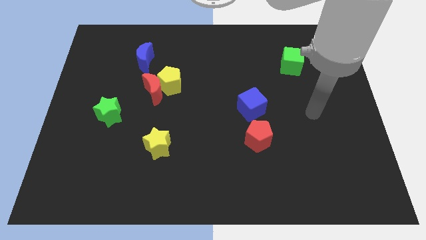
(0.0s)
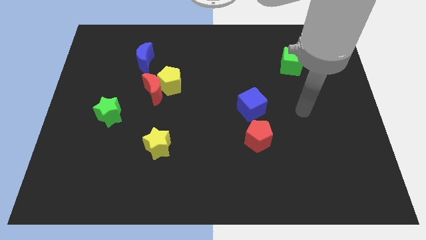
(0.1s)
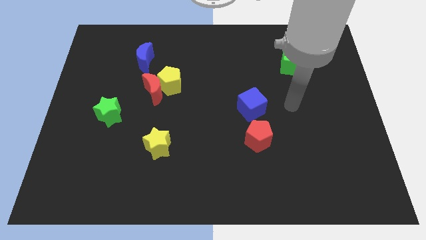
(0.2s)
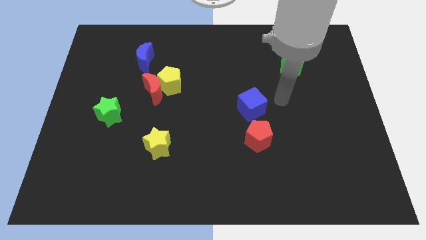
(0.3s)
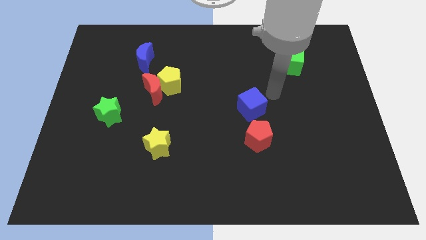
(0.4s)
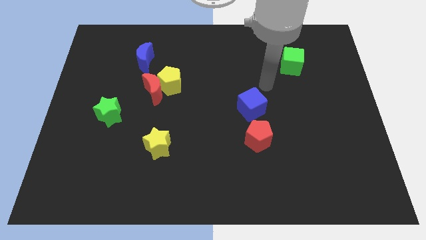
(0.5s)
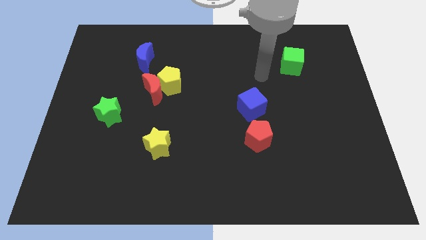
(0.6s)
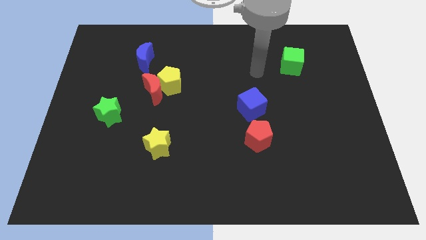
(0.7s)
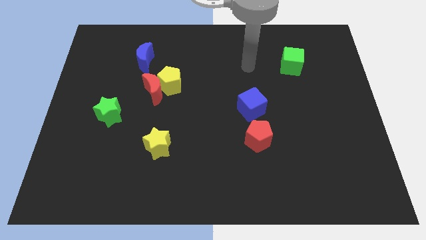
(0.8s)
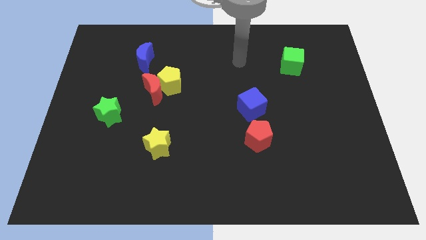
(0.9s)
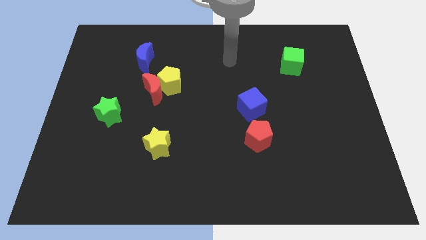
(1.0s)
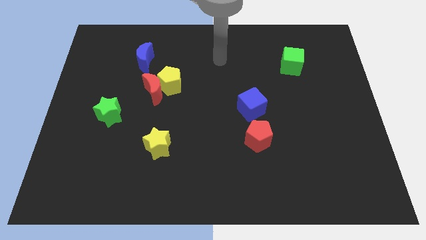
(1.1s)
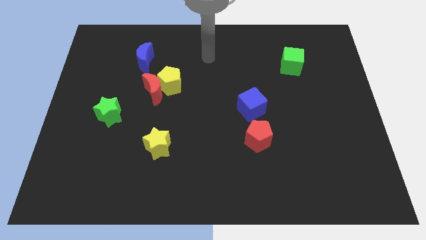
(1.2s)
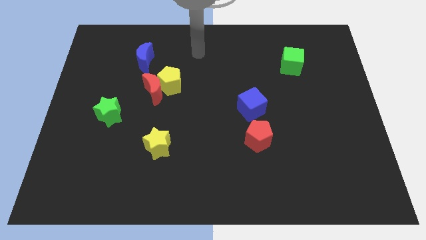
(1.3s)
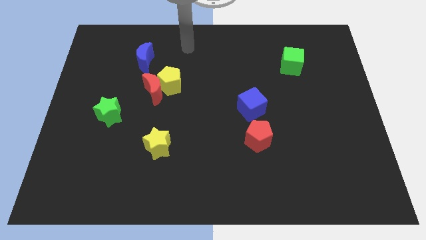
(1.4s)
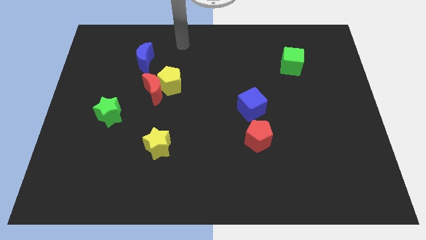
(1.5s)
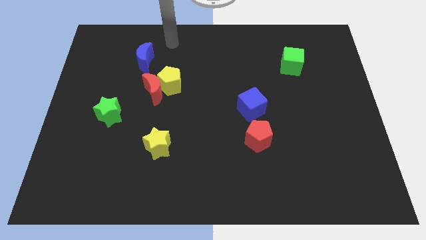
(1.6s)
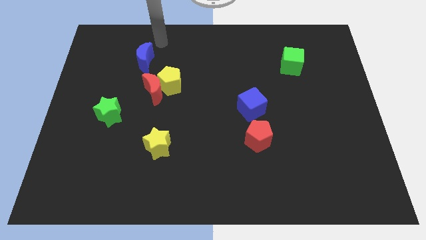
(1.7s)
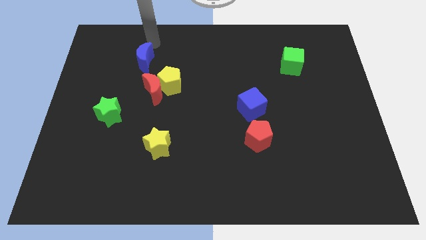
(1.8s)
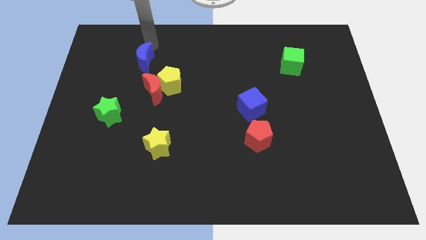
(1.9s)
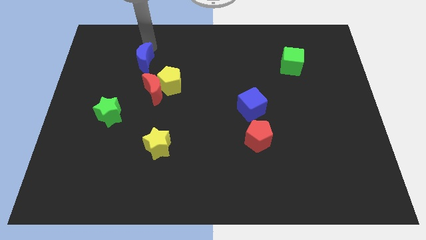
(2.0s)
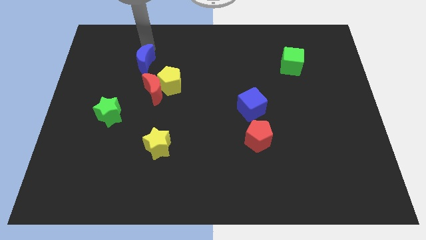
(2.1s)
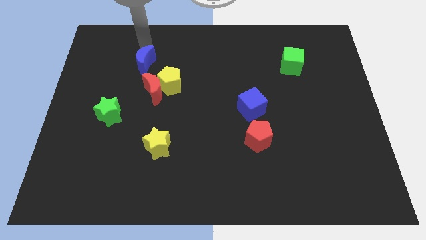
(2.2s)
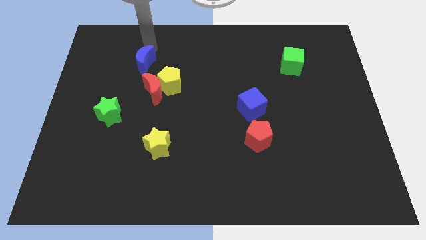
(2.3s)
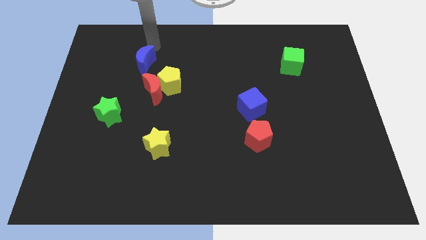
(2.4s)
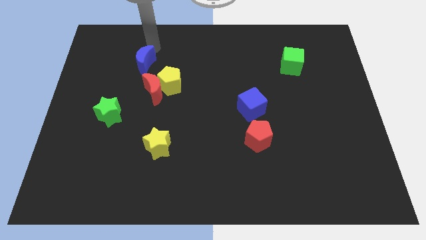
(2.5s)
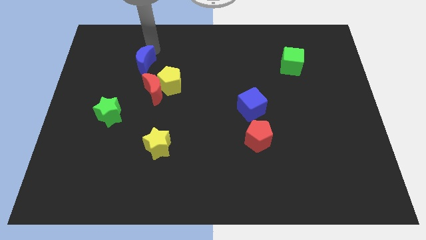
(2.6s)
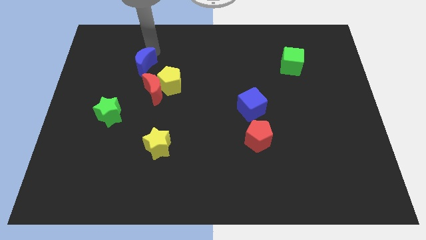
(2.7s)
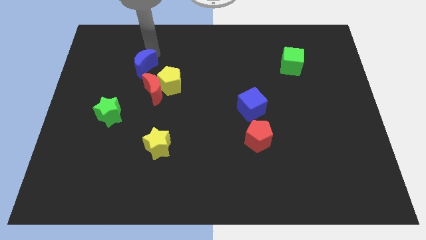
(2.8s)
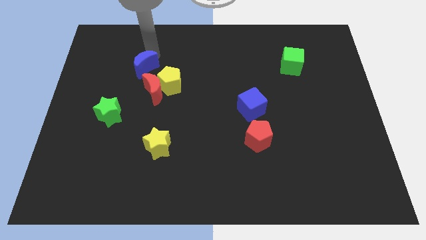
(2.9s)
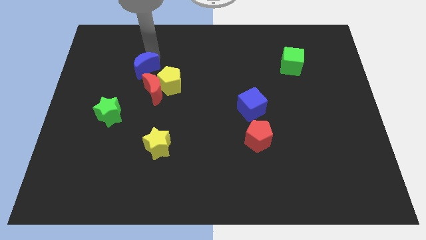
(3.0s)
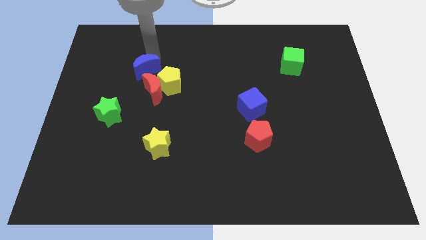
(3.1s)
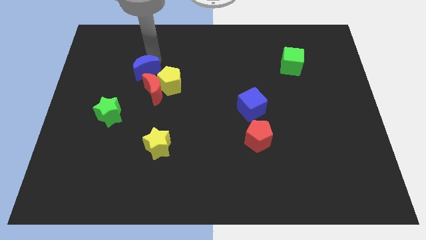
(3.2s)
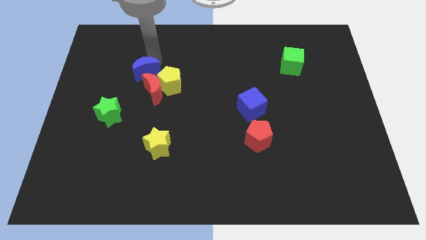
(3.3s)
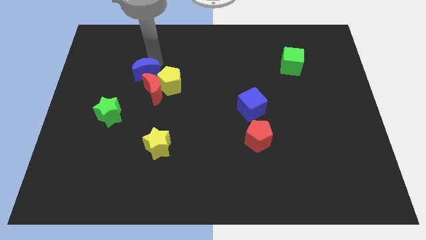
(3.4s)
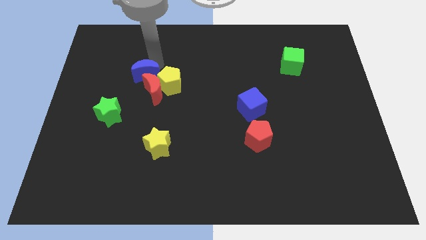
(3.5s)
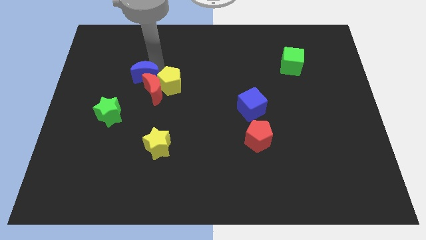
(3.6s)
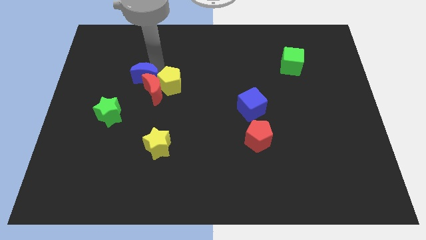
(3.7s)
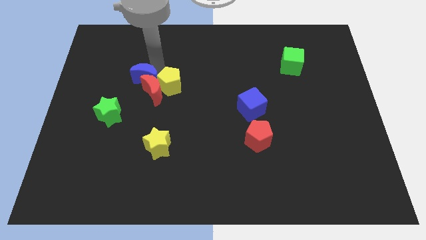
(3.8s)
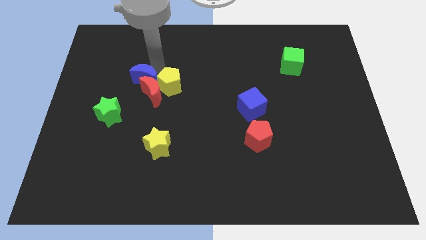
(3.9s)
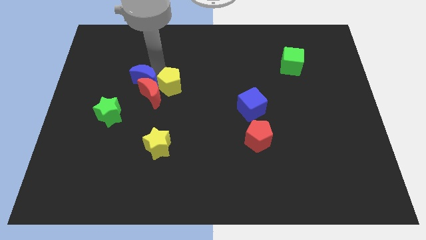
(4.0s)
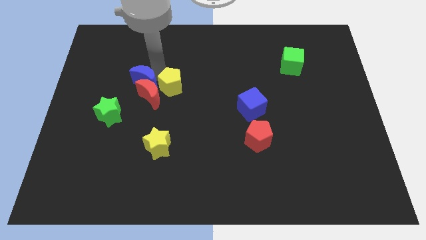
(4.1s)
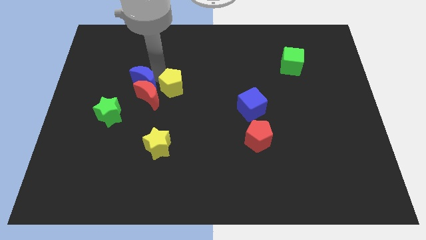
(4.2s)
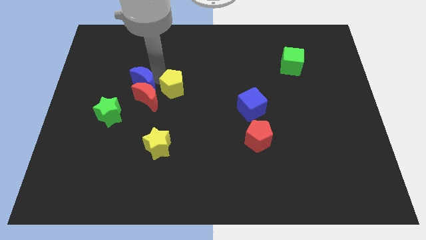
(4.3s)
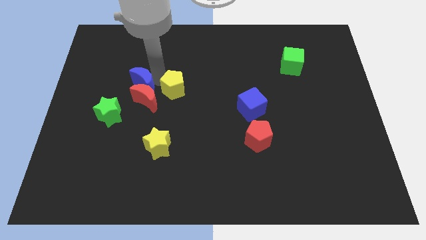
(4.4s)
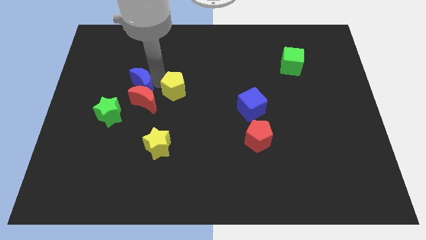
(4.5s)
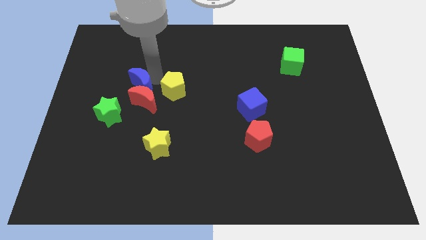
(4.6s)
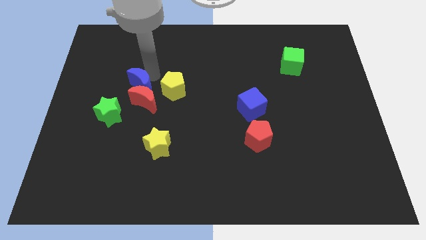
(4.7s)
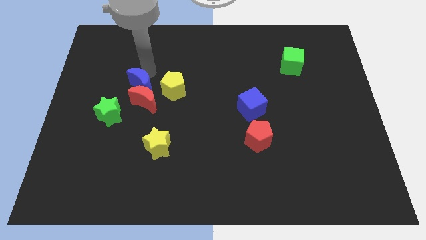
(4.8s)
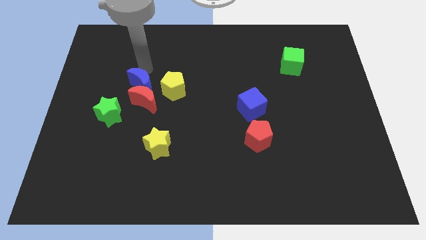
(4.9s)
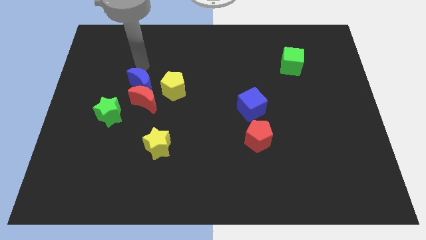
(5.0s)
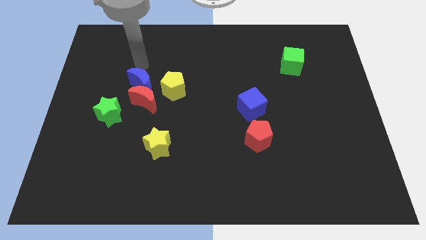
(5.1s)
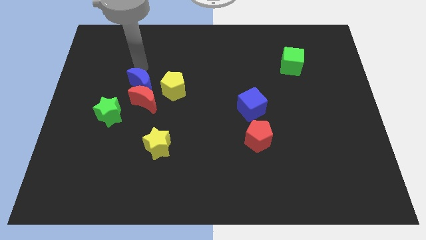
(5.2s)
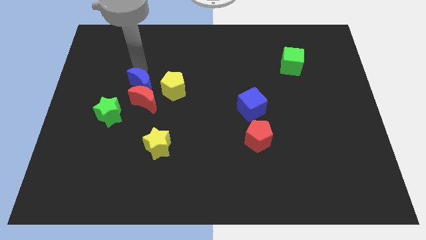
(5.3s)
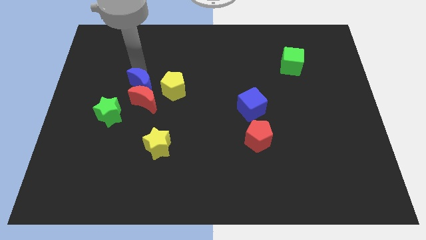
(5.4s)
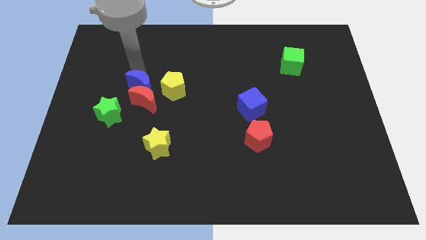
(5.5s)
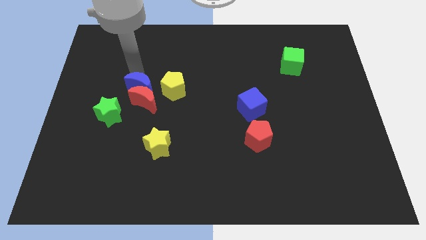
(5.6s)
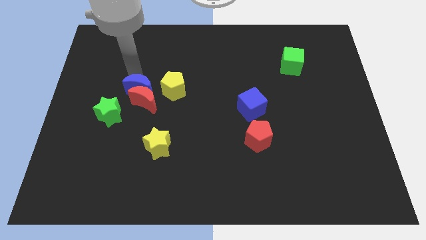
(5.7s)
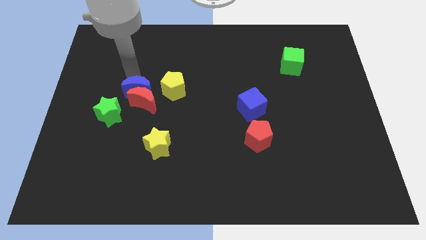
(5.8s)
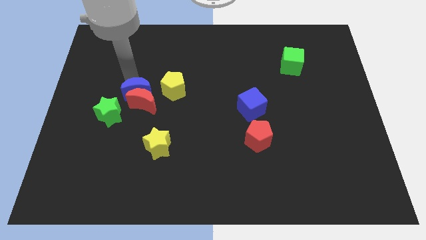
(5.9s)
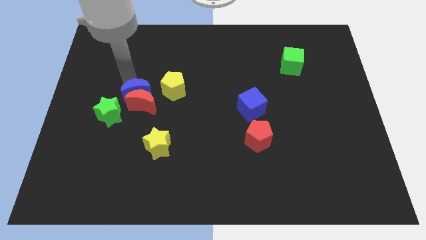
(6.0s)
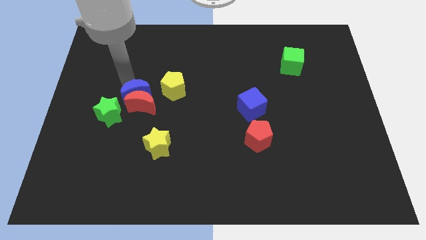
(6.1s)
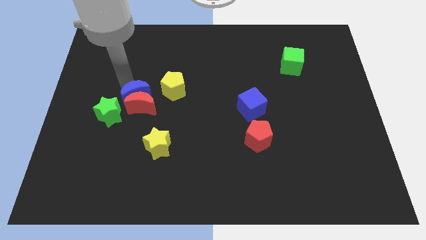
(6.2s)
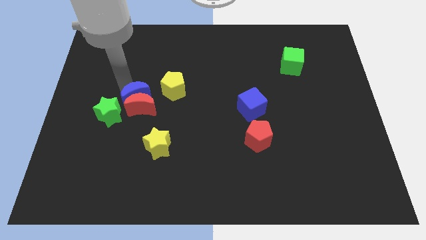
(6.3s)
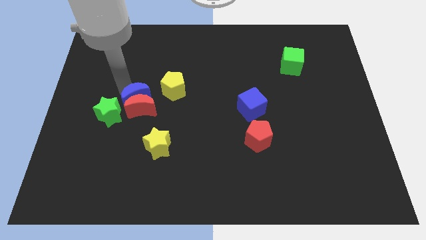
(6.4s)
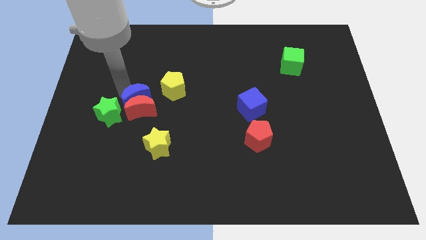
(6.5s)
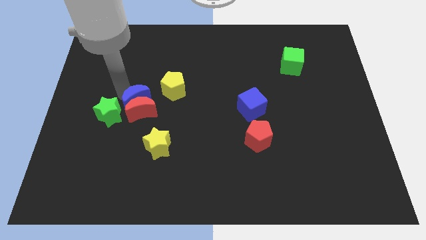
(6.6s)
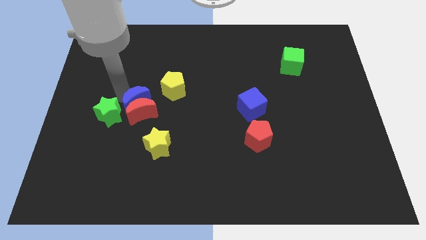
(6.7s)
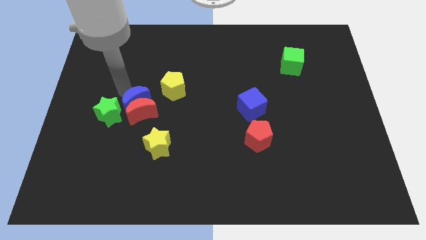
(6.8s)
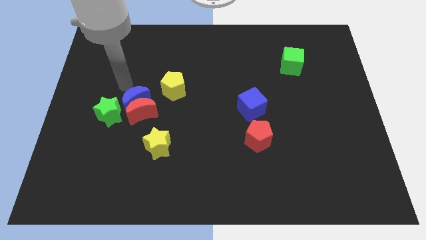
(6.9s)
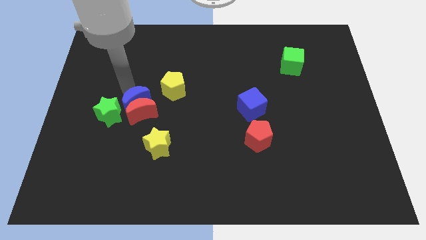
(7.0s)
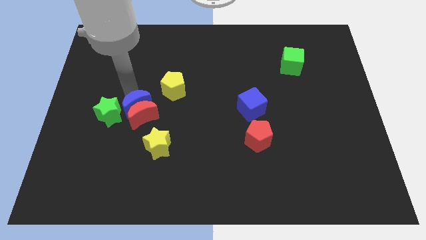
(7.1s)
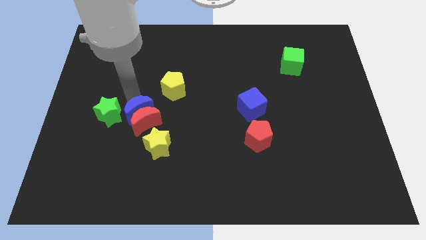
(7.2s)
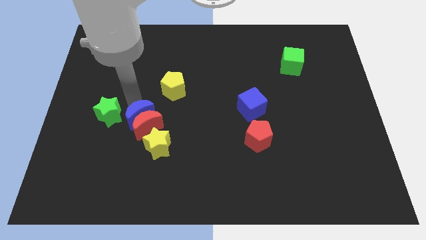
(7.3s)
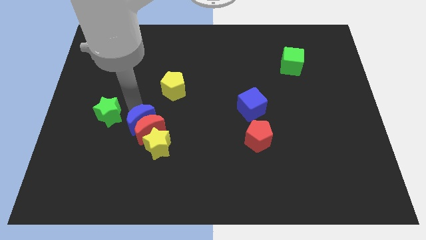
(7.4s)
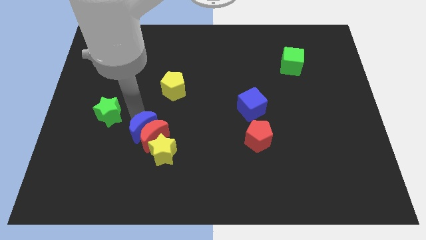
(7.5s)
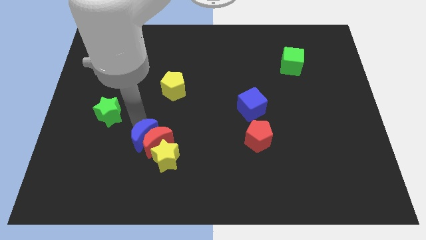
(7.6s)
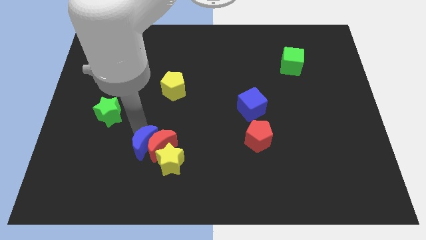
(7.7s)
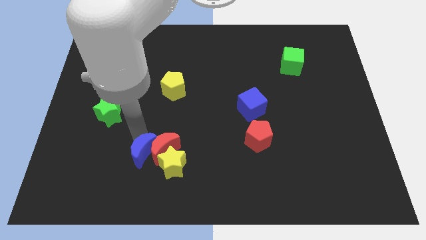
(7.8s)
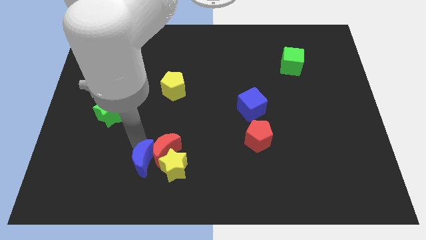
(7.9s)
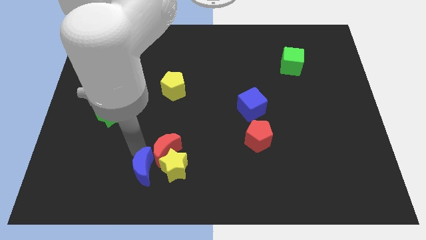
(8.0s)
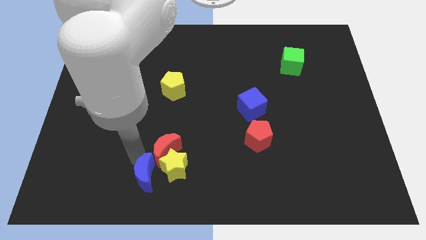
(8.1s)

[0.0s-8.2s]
slide the blue moon towards the yellow star

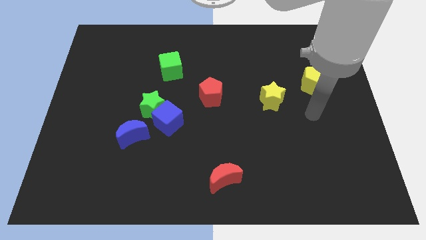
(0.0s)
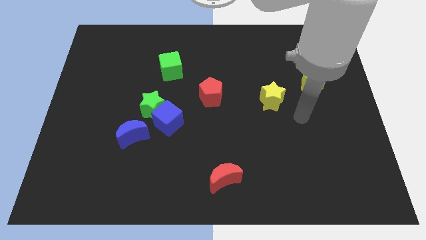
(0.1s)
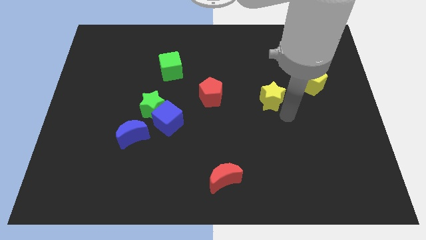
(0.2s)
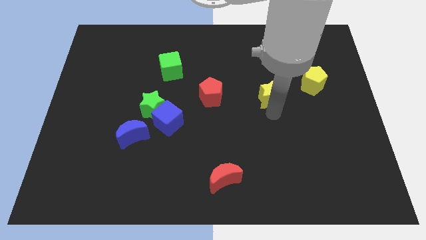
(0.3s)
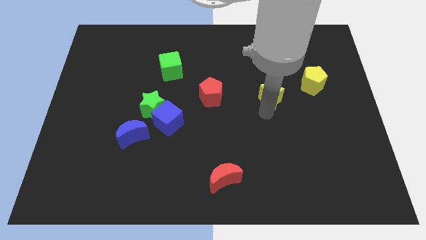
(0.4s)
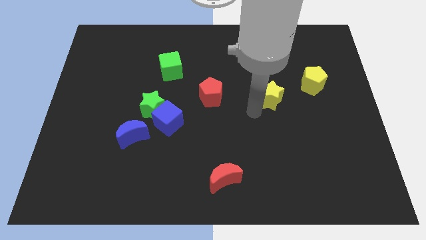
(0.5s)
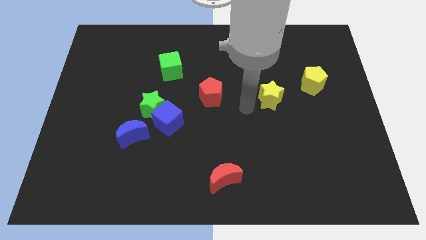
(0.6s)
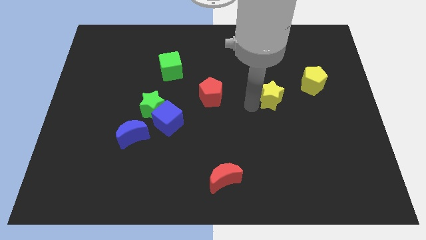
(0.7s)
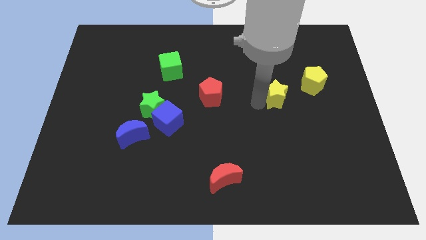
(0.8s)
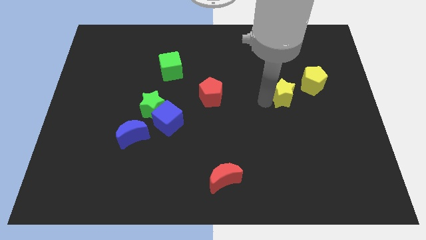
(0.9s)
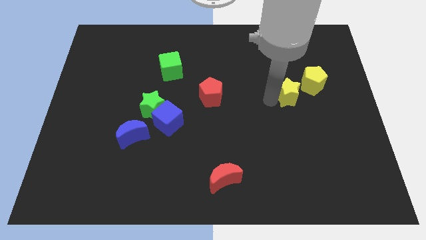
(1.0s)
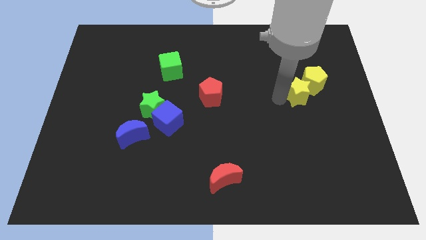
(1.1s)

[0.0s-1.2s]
slide the yellow star to the yellow pentagon
